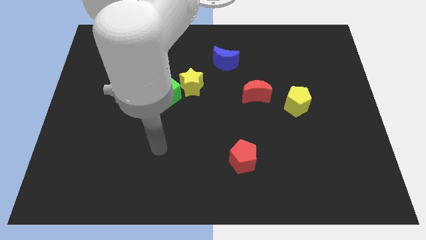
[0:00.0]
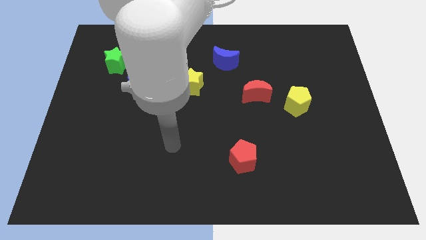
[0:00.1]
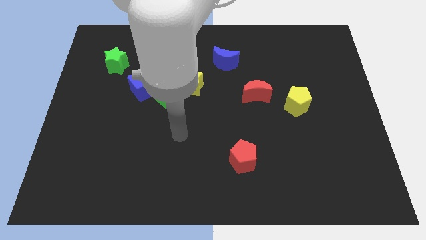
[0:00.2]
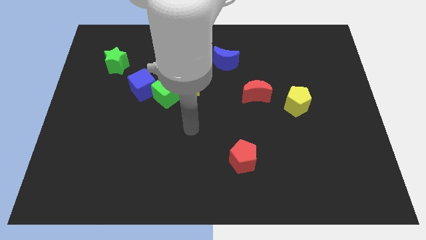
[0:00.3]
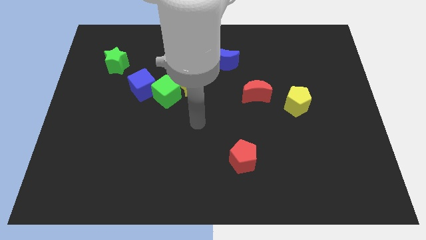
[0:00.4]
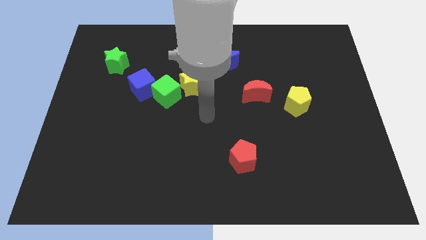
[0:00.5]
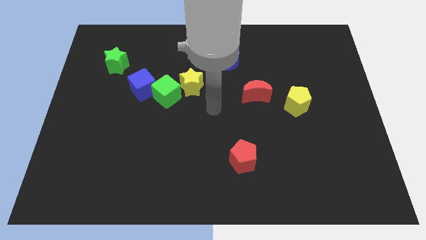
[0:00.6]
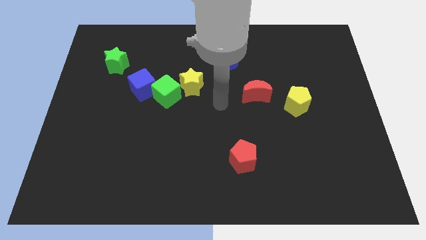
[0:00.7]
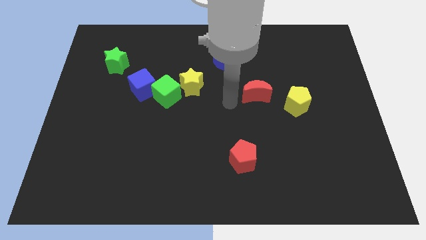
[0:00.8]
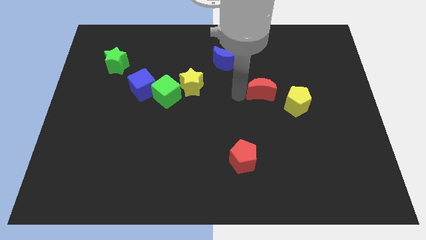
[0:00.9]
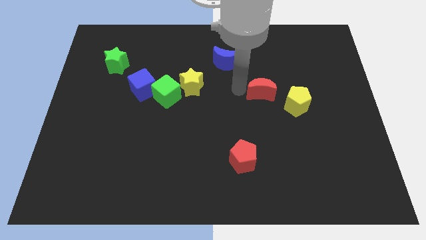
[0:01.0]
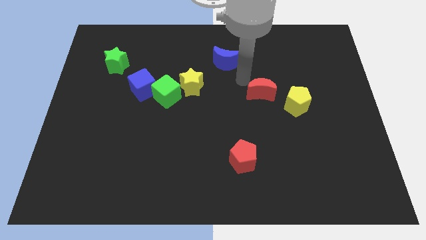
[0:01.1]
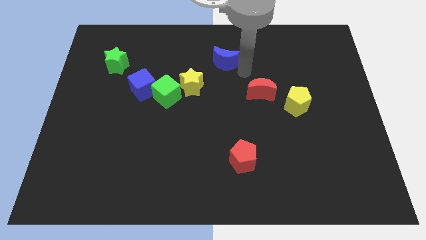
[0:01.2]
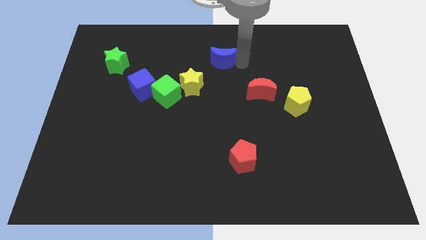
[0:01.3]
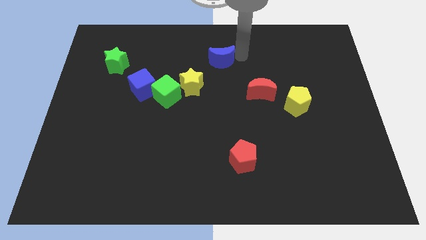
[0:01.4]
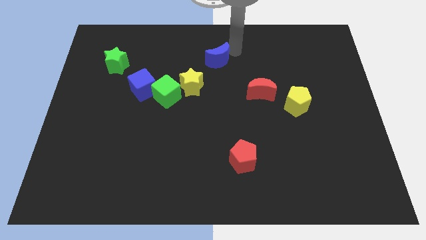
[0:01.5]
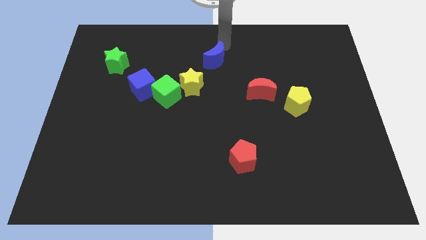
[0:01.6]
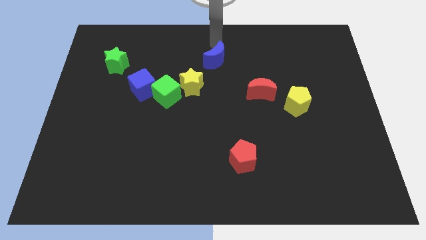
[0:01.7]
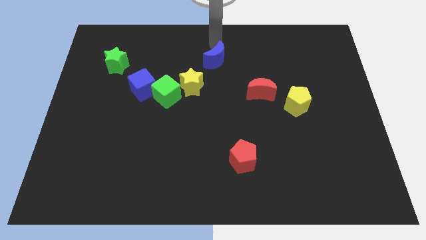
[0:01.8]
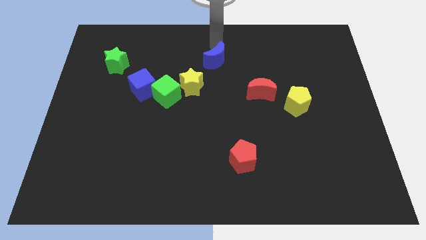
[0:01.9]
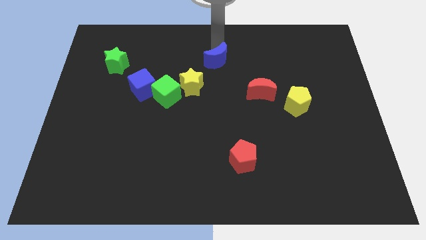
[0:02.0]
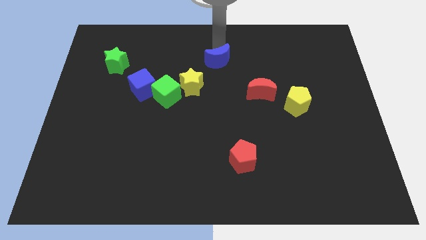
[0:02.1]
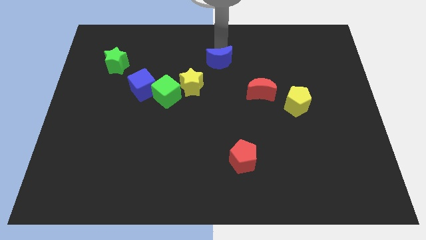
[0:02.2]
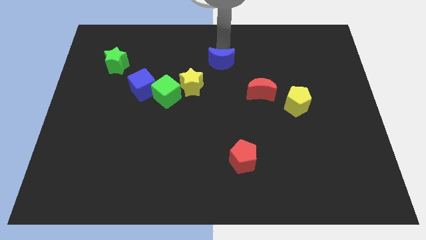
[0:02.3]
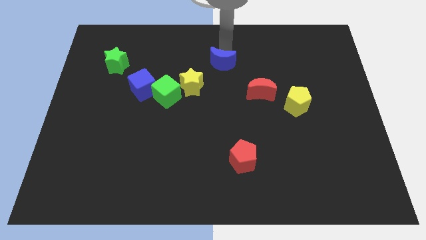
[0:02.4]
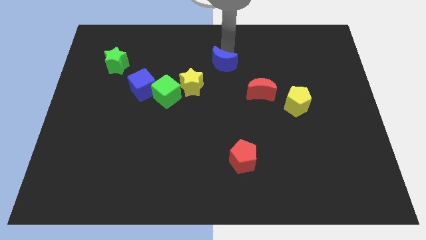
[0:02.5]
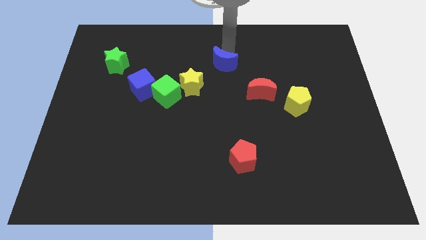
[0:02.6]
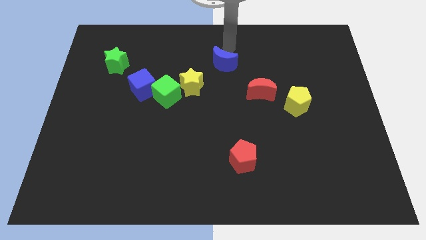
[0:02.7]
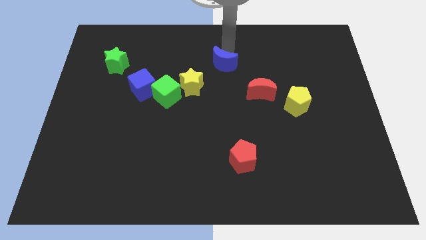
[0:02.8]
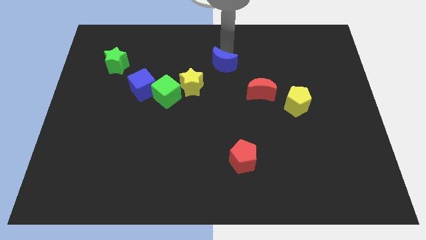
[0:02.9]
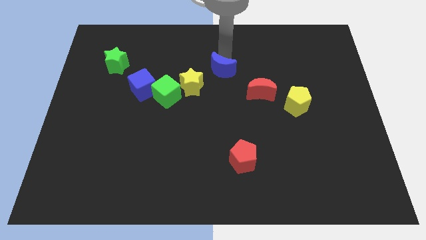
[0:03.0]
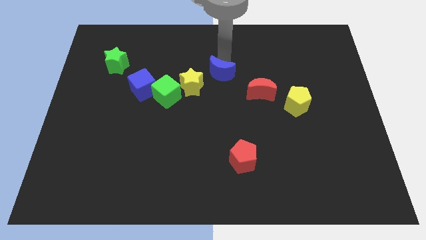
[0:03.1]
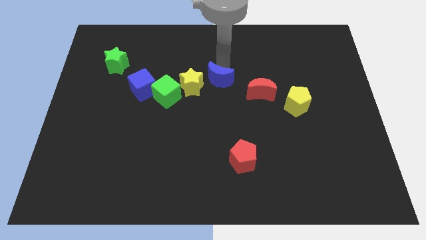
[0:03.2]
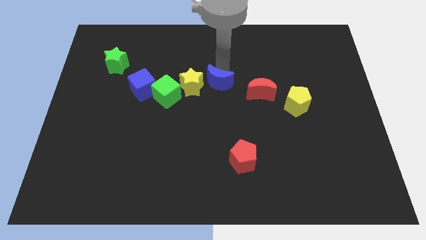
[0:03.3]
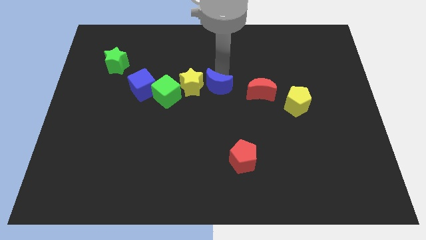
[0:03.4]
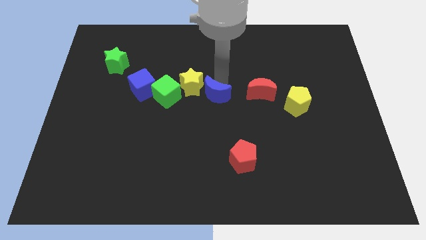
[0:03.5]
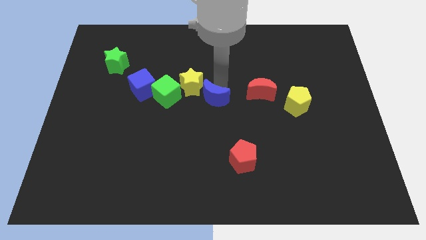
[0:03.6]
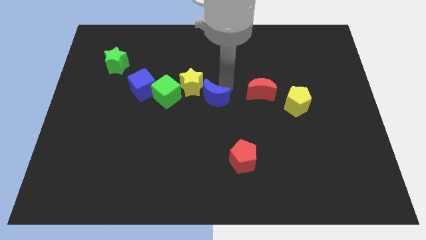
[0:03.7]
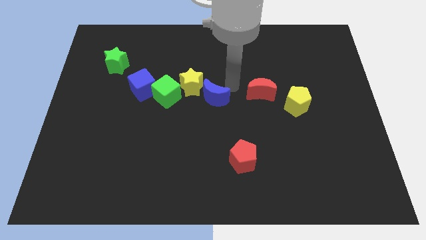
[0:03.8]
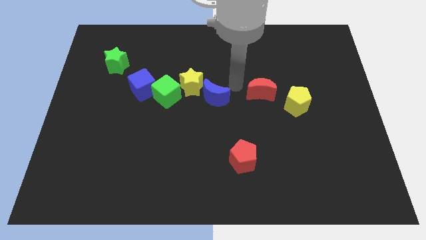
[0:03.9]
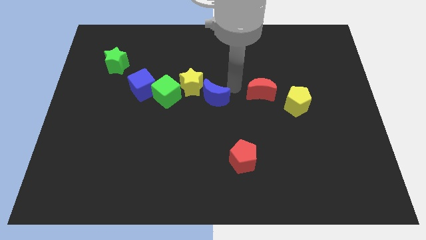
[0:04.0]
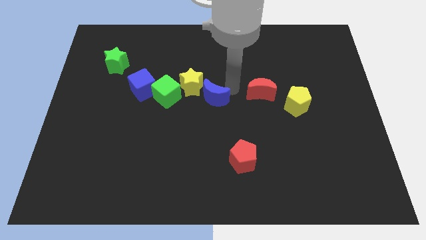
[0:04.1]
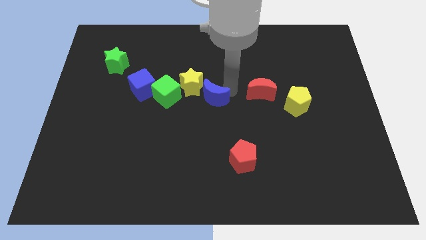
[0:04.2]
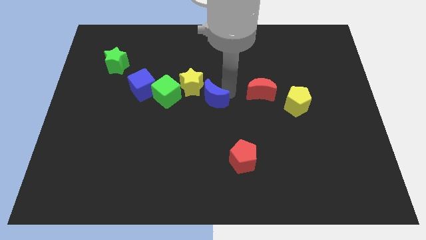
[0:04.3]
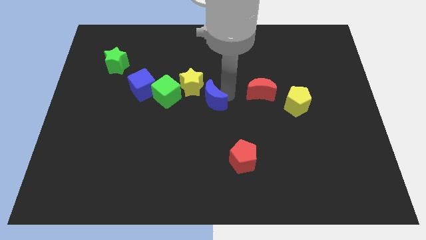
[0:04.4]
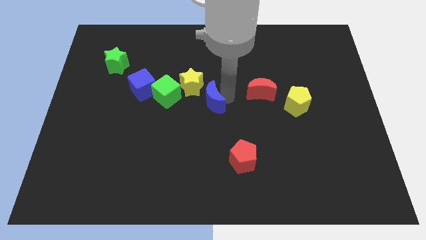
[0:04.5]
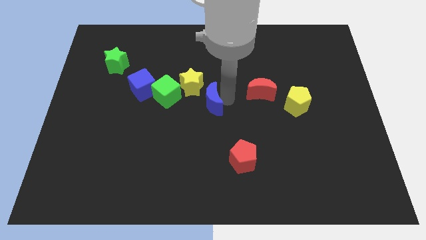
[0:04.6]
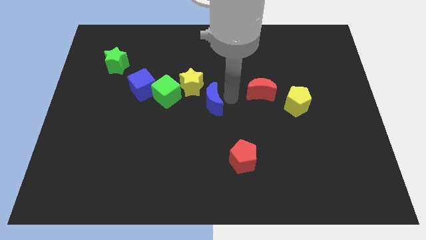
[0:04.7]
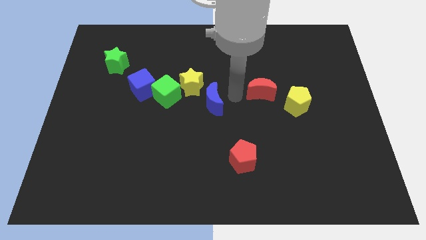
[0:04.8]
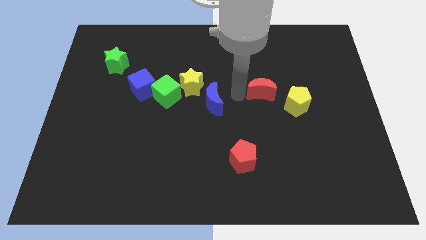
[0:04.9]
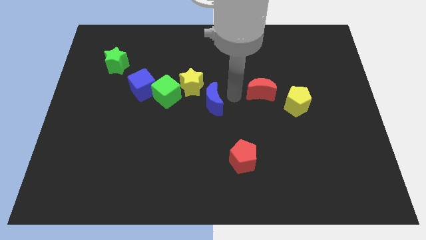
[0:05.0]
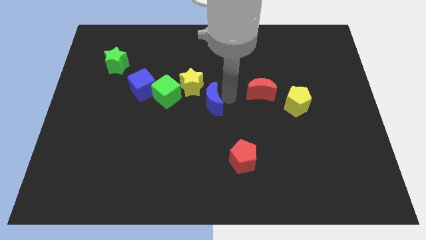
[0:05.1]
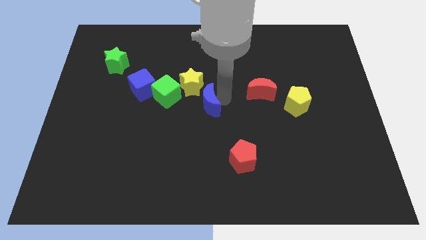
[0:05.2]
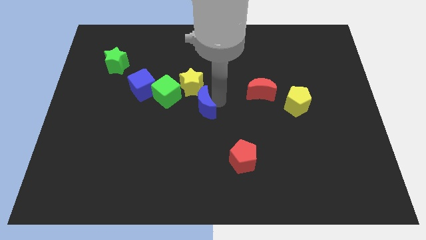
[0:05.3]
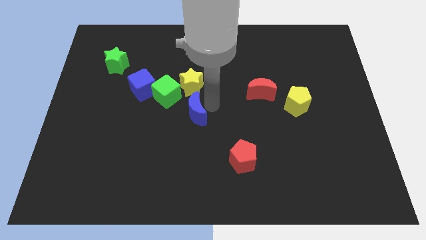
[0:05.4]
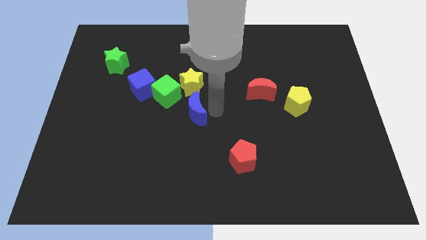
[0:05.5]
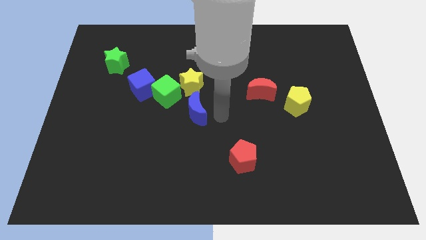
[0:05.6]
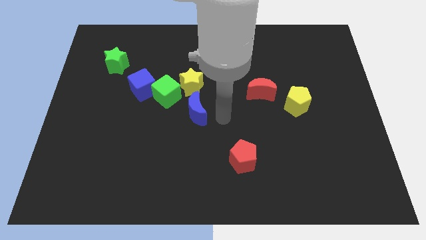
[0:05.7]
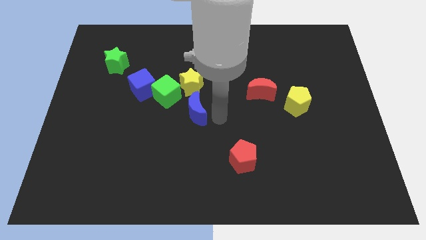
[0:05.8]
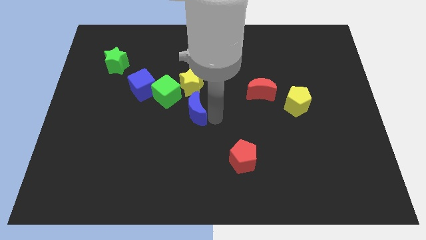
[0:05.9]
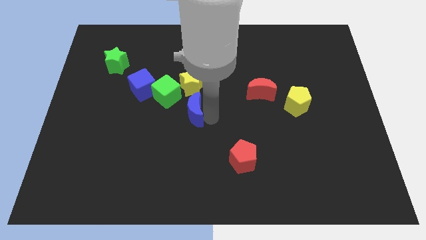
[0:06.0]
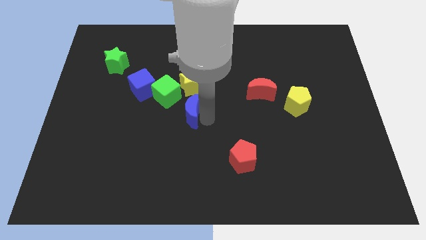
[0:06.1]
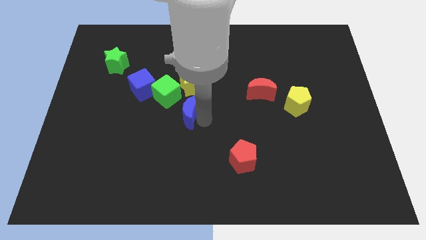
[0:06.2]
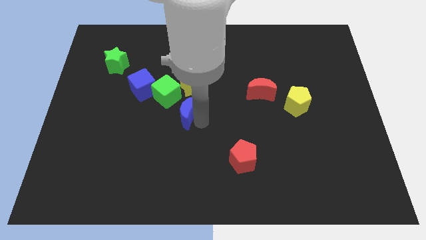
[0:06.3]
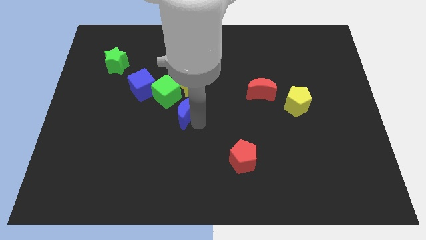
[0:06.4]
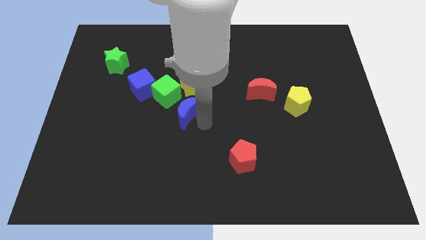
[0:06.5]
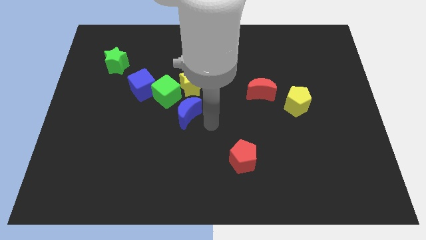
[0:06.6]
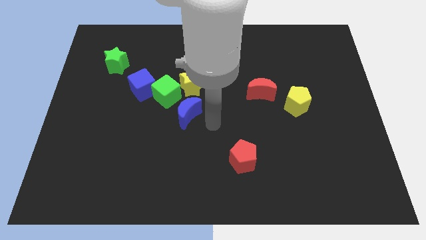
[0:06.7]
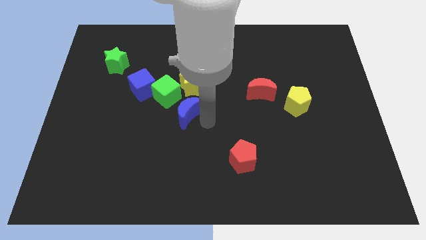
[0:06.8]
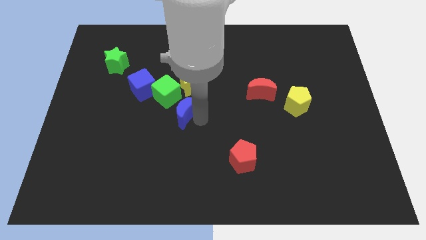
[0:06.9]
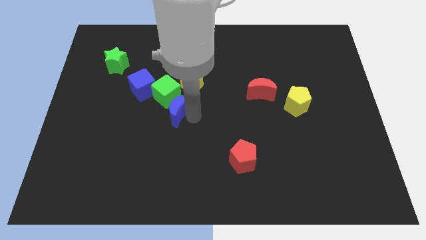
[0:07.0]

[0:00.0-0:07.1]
move the blue moon to the bottom right of the blue cube

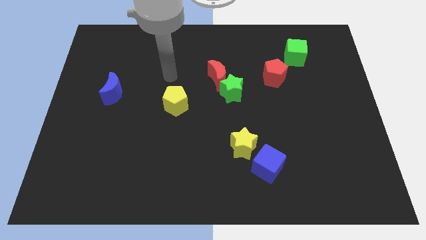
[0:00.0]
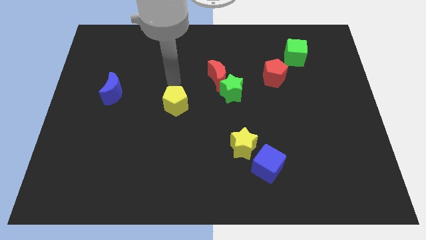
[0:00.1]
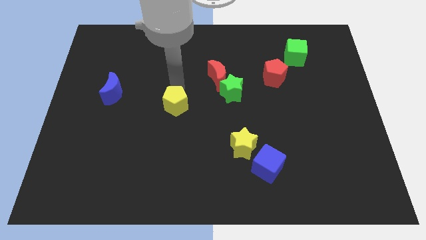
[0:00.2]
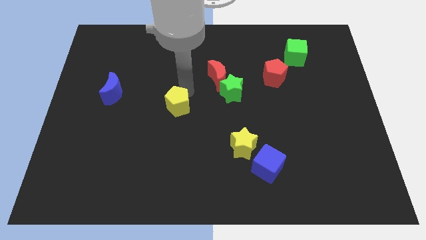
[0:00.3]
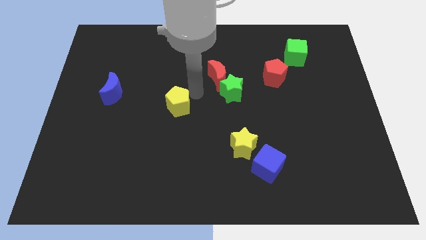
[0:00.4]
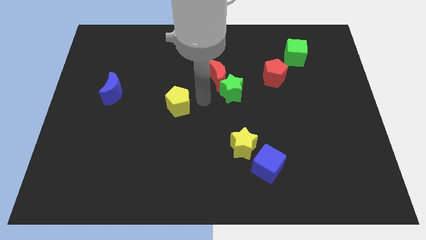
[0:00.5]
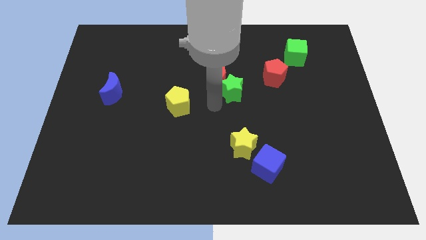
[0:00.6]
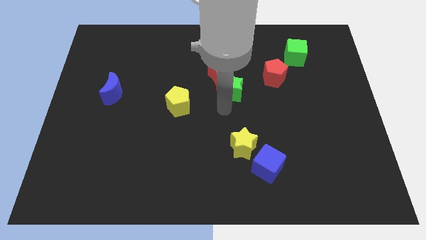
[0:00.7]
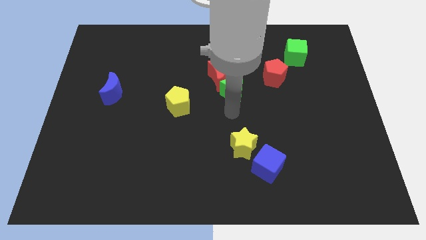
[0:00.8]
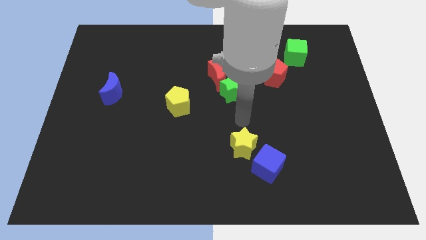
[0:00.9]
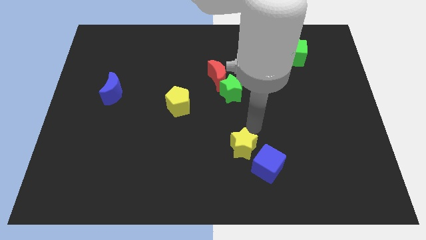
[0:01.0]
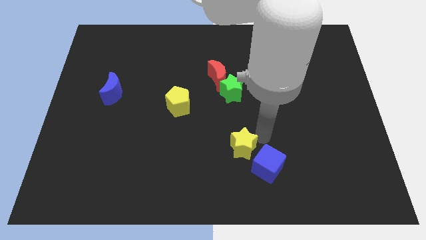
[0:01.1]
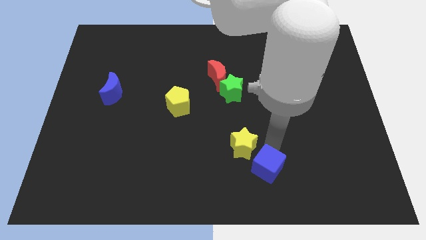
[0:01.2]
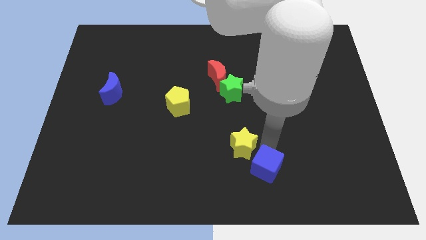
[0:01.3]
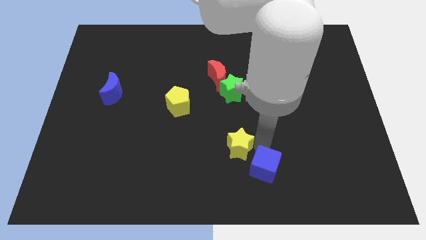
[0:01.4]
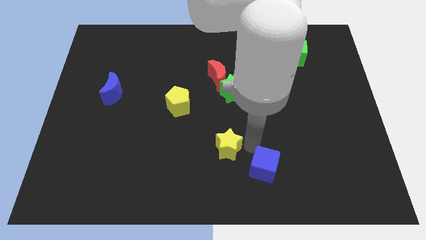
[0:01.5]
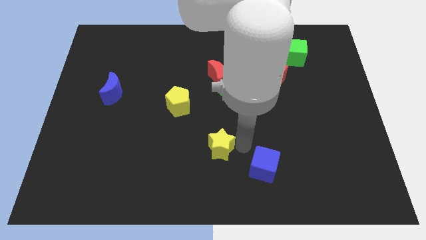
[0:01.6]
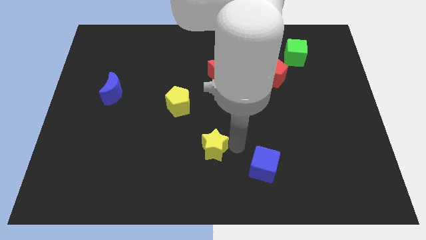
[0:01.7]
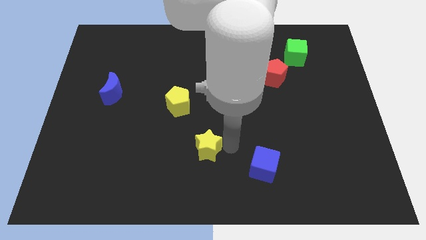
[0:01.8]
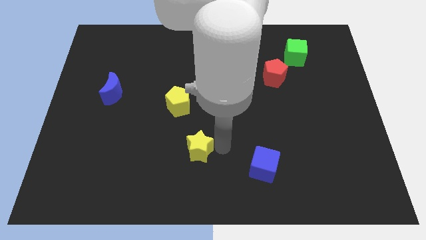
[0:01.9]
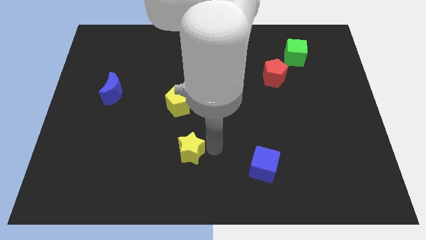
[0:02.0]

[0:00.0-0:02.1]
move the yellow star below the yellow pentagon
